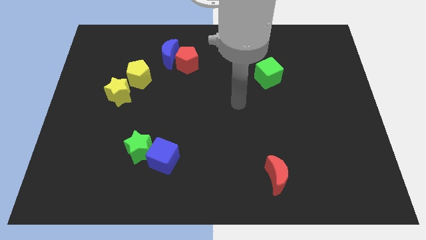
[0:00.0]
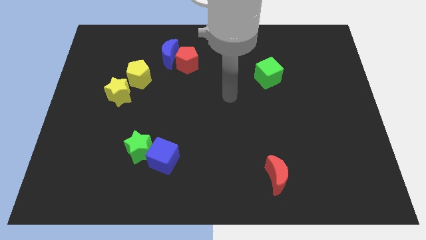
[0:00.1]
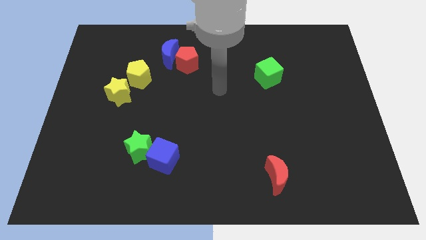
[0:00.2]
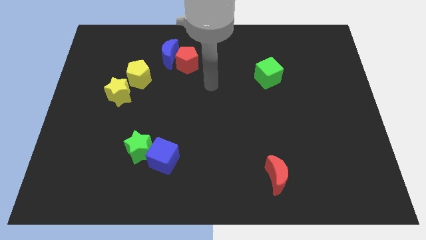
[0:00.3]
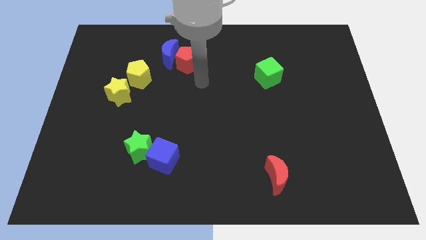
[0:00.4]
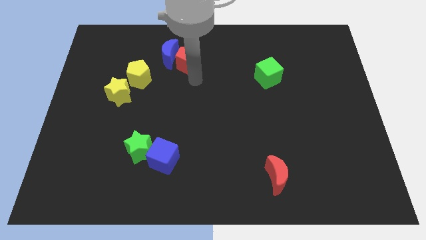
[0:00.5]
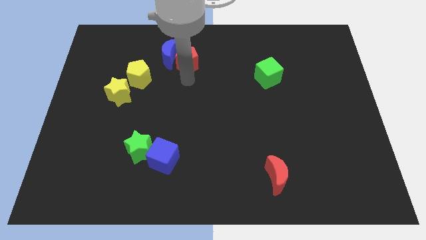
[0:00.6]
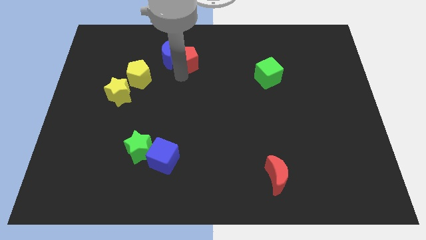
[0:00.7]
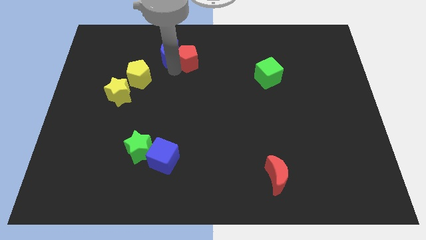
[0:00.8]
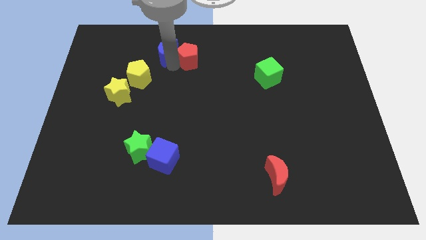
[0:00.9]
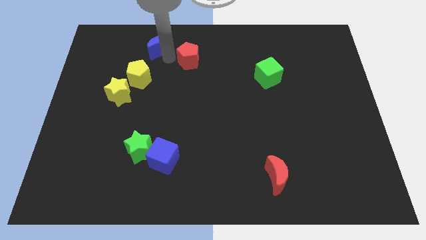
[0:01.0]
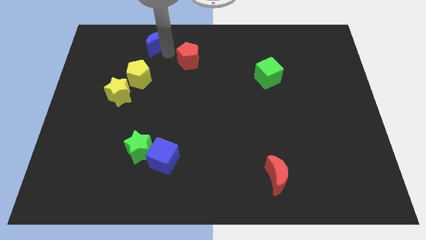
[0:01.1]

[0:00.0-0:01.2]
separate the red pentagon from the blue moon

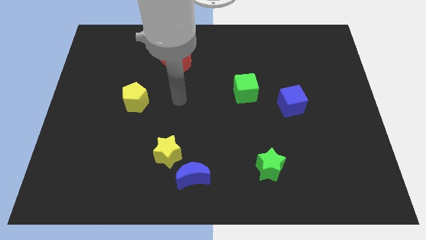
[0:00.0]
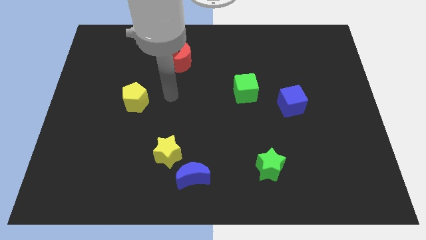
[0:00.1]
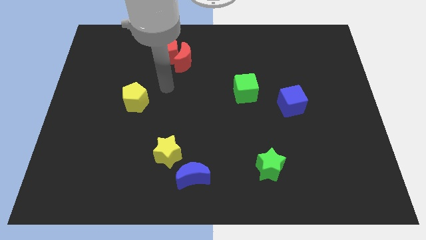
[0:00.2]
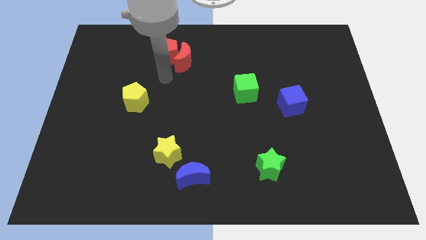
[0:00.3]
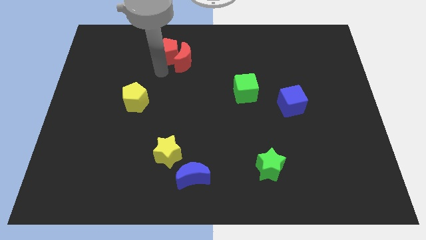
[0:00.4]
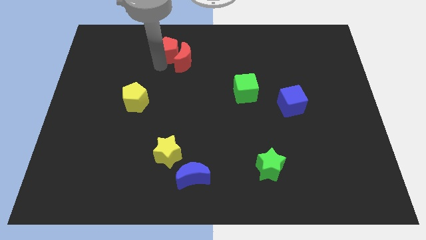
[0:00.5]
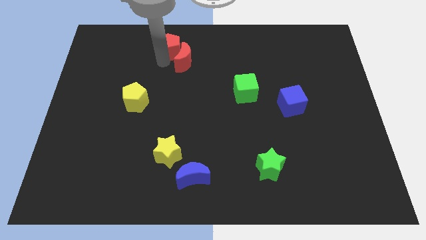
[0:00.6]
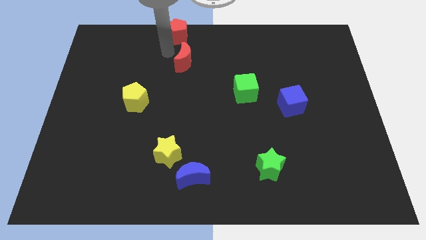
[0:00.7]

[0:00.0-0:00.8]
separate the red moon from the red pentagon

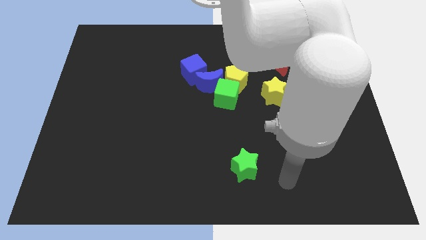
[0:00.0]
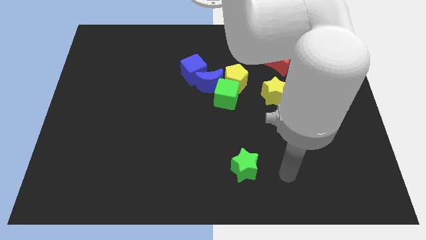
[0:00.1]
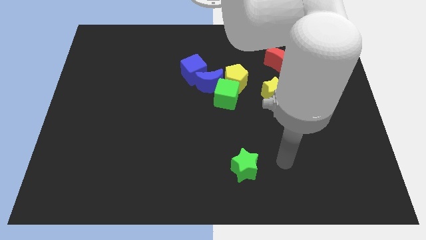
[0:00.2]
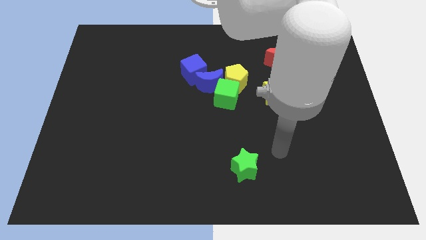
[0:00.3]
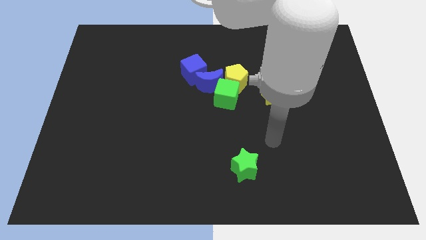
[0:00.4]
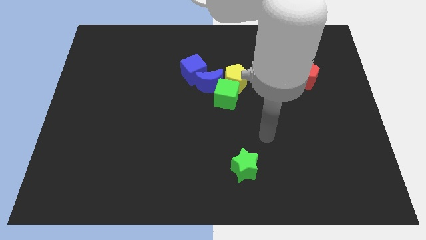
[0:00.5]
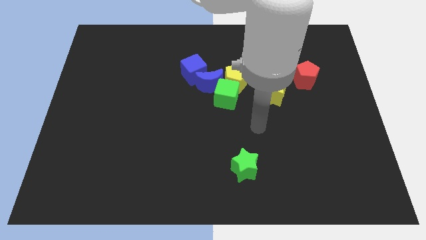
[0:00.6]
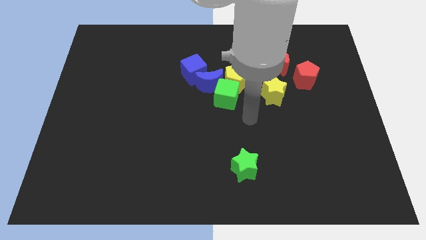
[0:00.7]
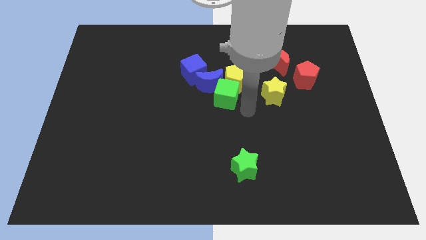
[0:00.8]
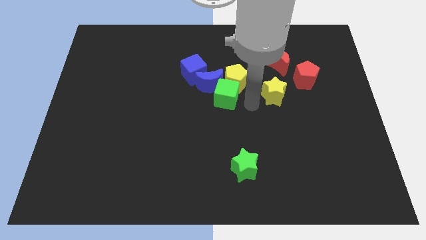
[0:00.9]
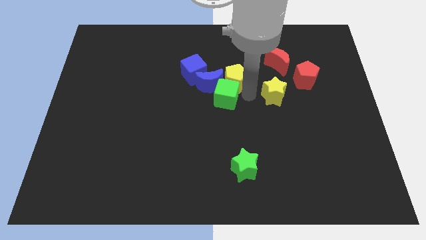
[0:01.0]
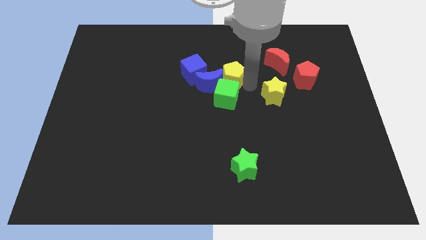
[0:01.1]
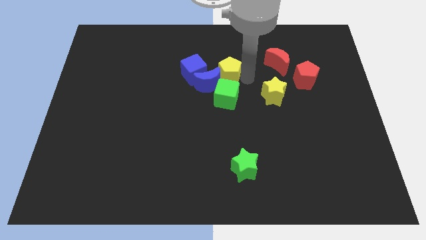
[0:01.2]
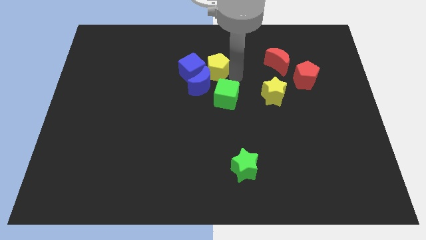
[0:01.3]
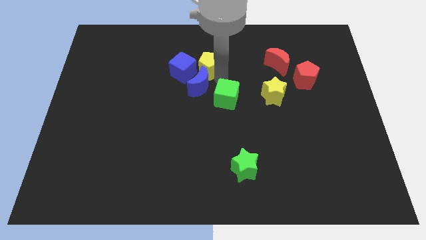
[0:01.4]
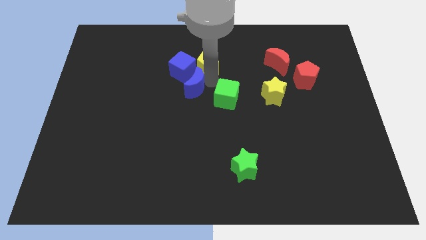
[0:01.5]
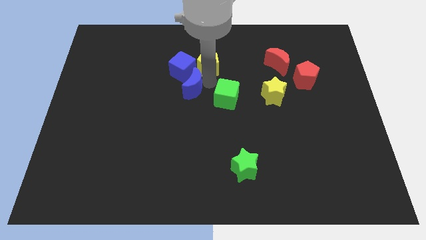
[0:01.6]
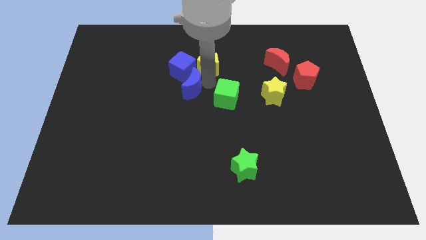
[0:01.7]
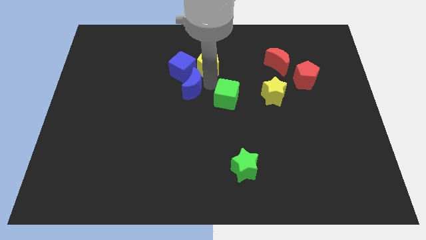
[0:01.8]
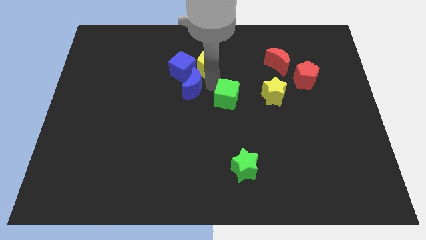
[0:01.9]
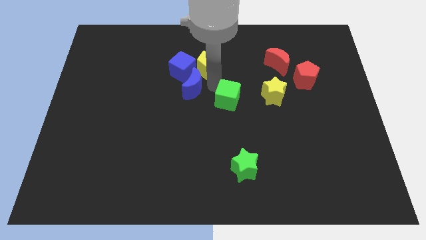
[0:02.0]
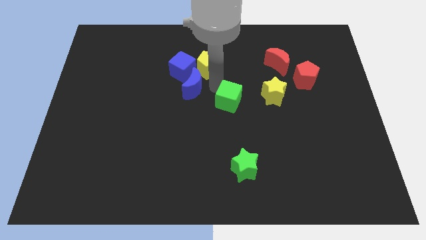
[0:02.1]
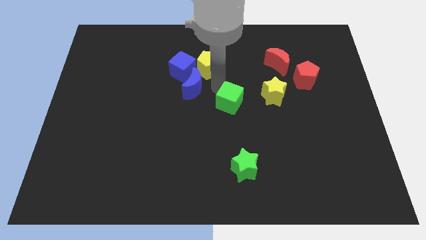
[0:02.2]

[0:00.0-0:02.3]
pull the green cube apart from the blue moon and yellow pentagon

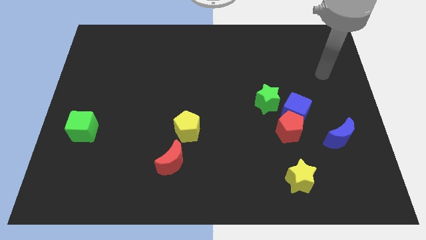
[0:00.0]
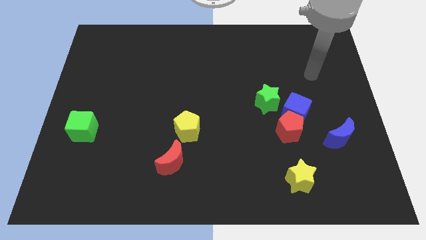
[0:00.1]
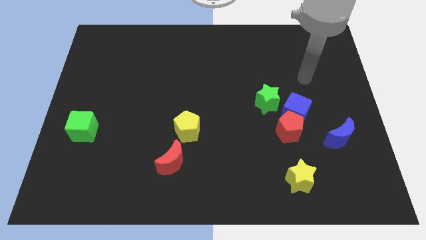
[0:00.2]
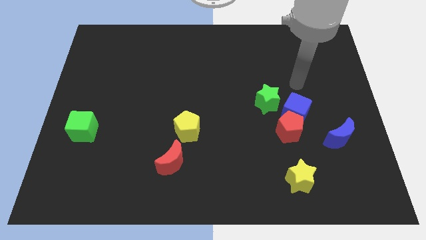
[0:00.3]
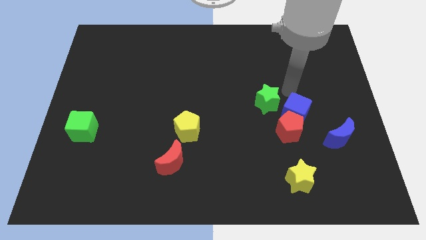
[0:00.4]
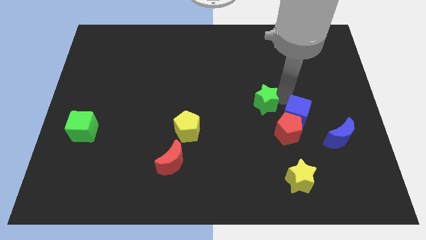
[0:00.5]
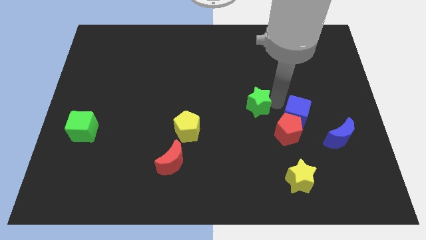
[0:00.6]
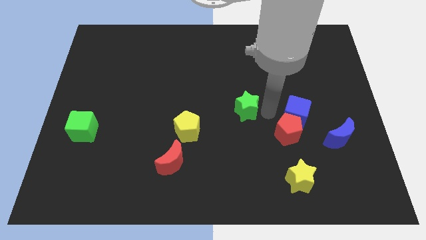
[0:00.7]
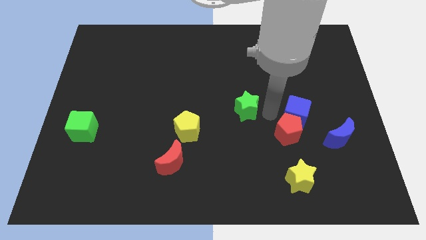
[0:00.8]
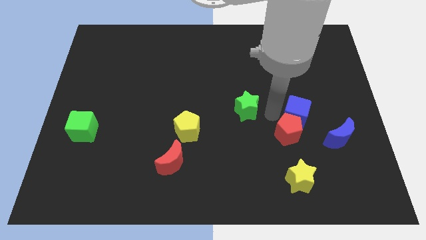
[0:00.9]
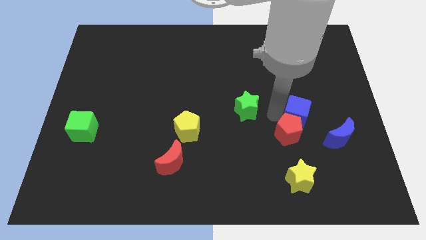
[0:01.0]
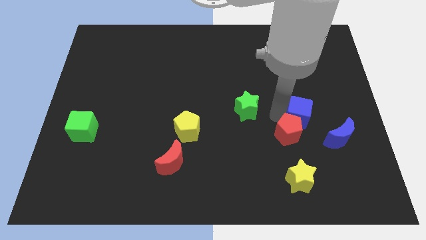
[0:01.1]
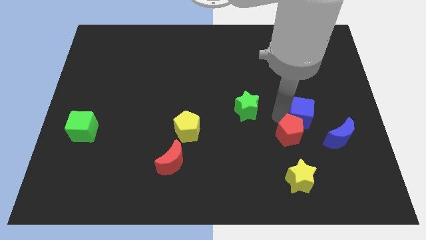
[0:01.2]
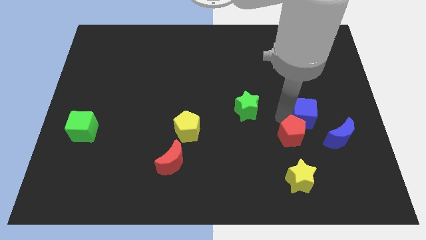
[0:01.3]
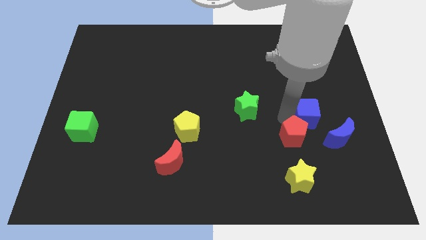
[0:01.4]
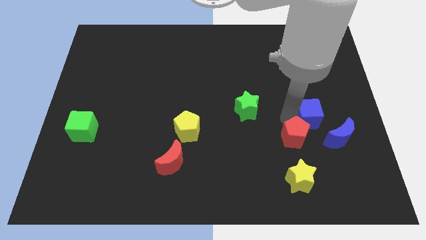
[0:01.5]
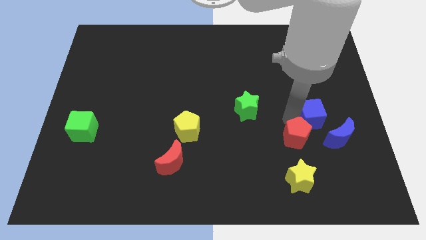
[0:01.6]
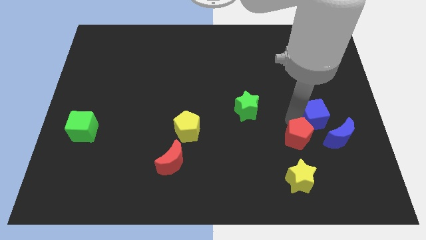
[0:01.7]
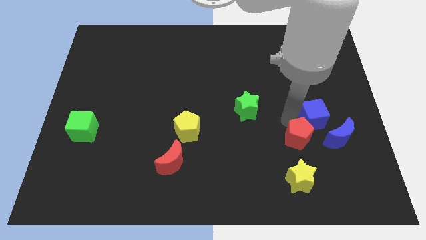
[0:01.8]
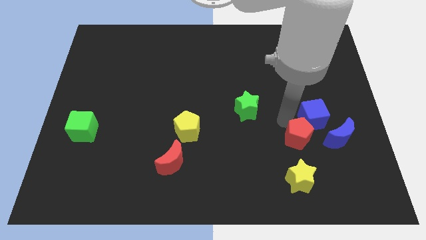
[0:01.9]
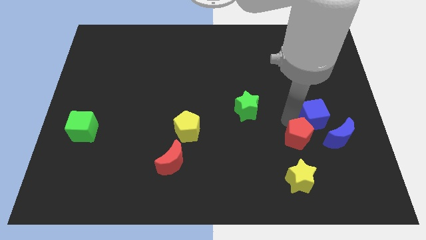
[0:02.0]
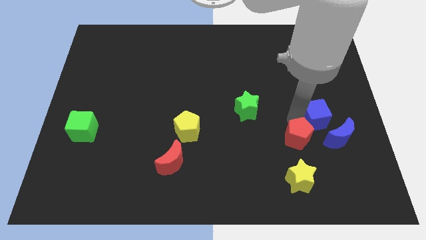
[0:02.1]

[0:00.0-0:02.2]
separate the blue cube from the red pentagon and green star

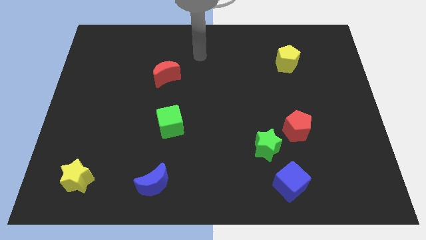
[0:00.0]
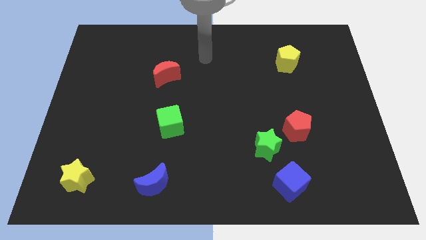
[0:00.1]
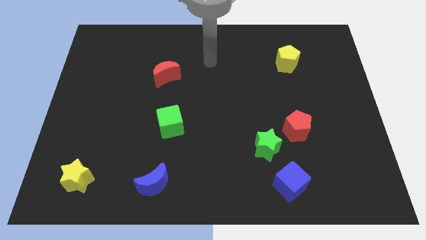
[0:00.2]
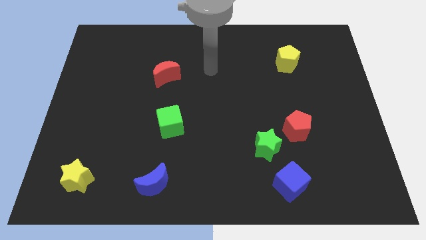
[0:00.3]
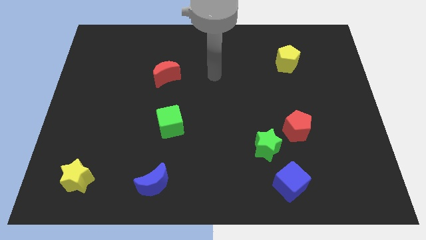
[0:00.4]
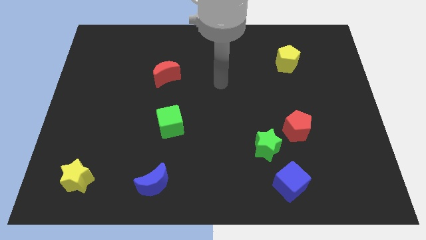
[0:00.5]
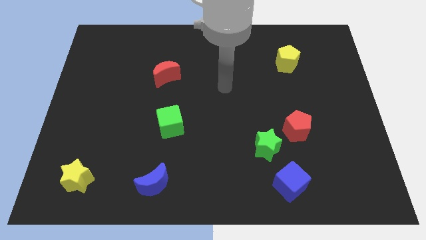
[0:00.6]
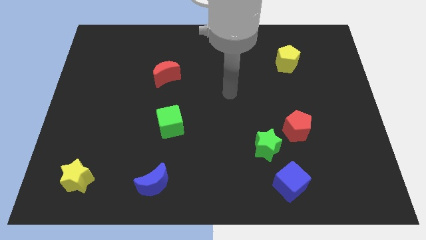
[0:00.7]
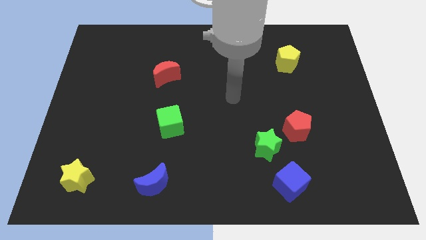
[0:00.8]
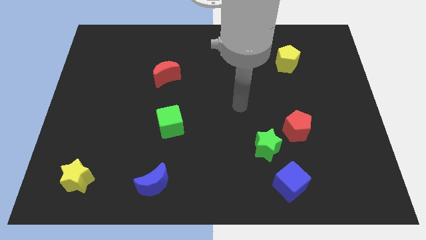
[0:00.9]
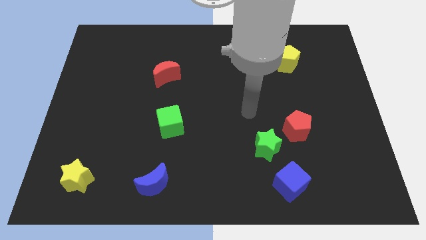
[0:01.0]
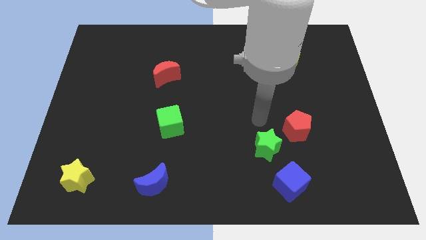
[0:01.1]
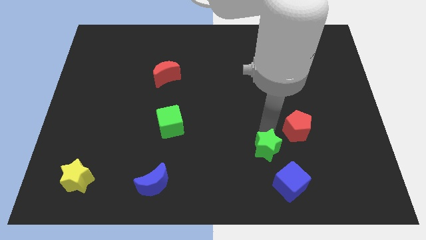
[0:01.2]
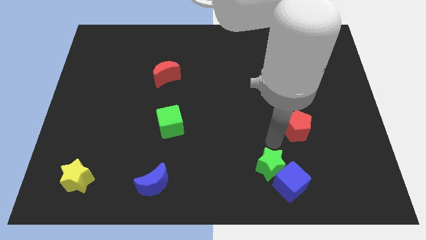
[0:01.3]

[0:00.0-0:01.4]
move the red pentagon away from the green star

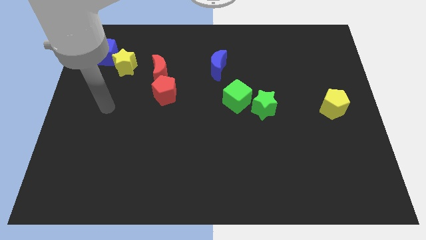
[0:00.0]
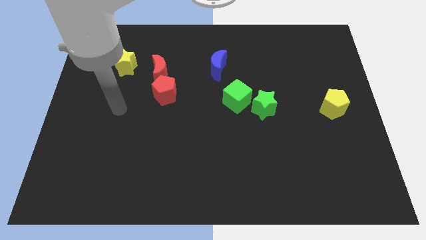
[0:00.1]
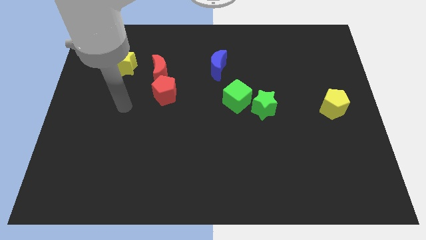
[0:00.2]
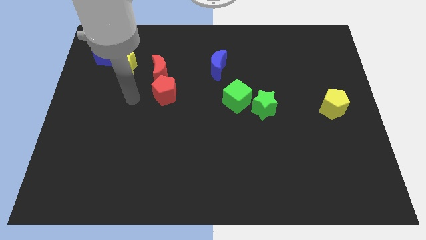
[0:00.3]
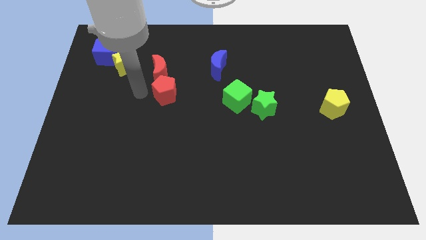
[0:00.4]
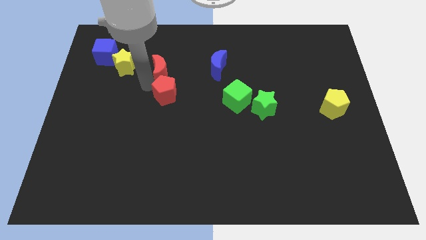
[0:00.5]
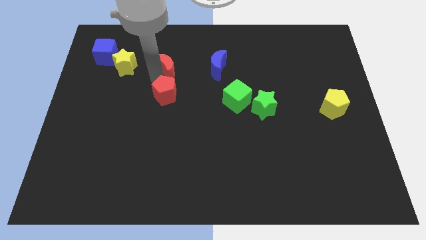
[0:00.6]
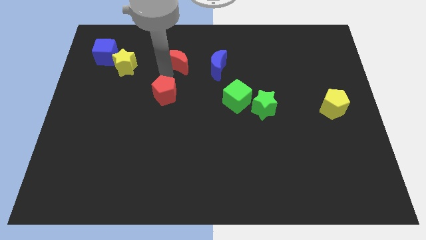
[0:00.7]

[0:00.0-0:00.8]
separate the red pentagon from the red moon

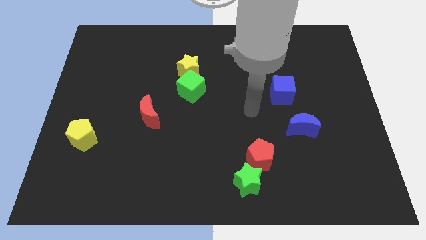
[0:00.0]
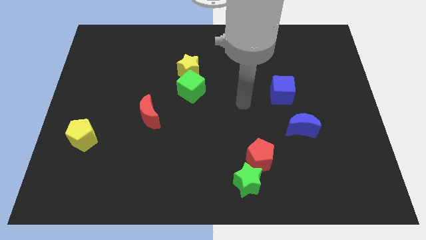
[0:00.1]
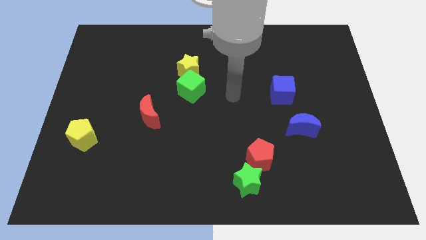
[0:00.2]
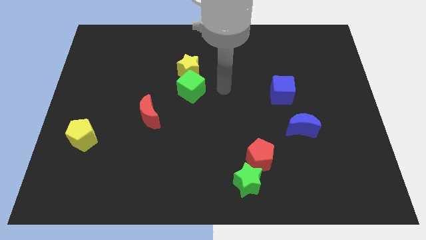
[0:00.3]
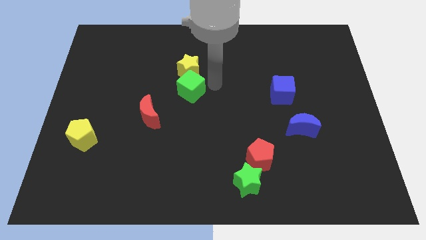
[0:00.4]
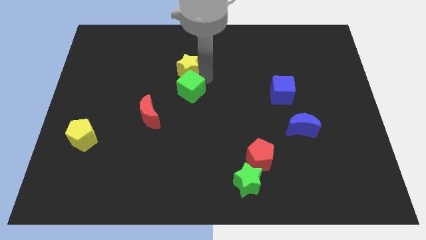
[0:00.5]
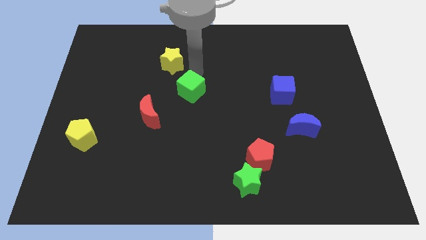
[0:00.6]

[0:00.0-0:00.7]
pull the green cube apart from the yellow star
